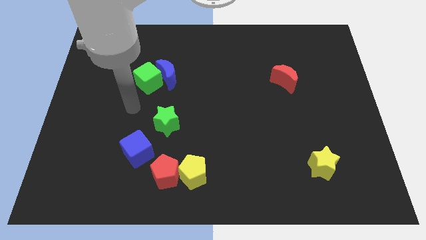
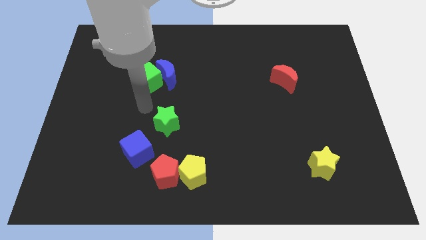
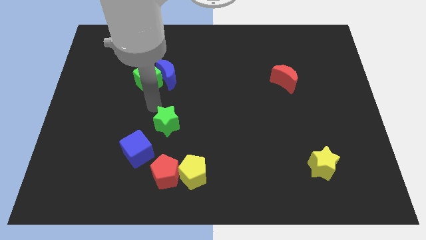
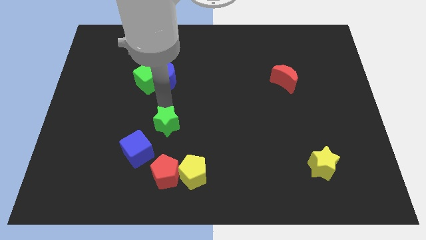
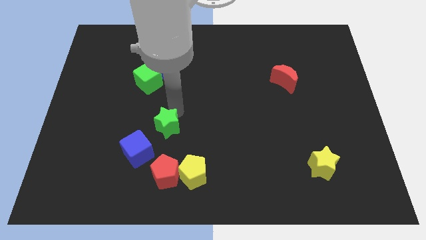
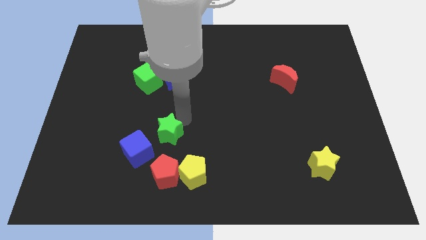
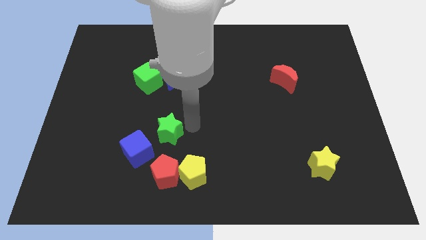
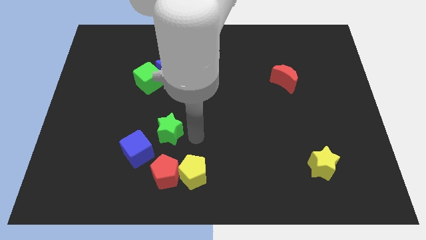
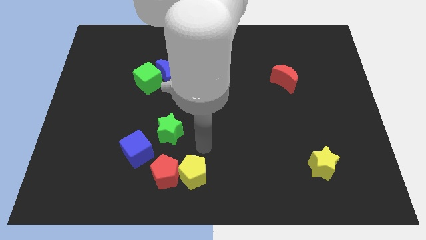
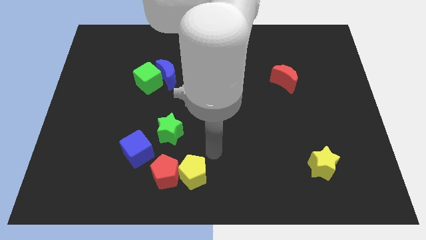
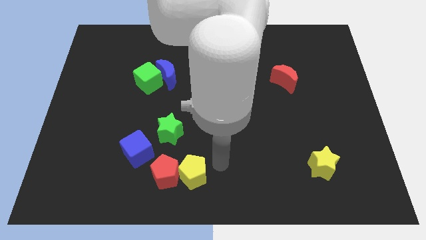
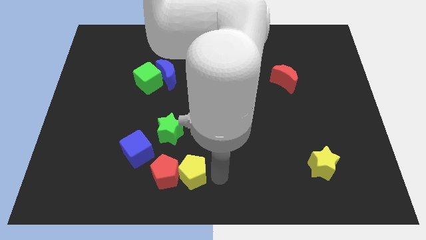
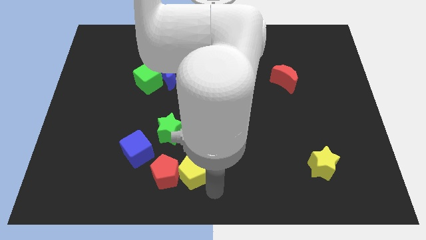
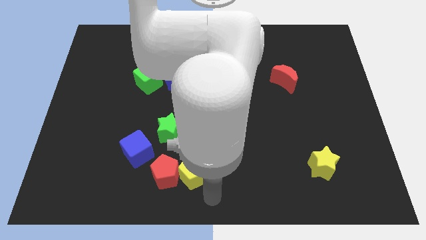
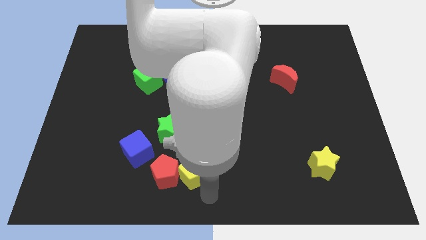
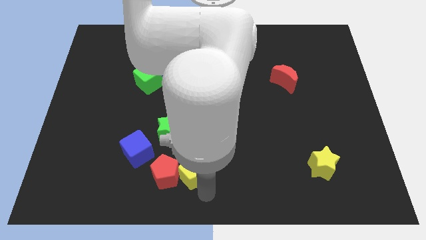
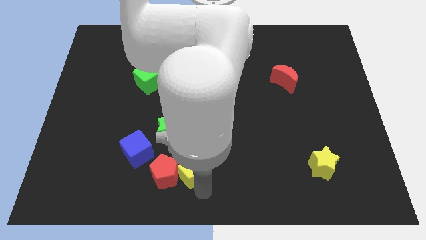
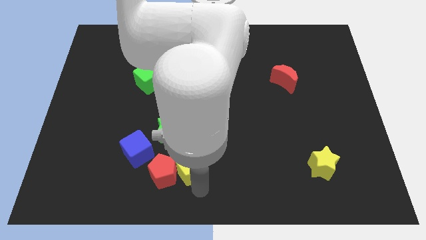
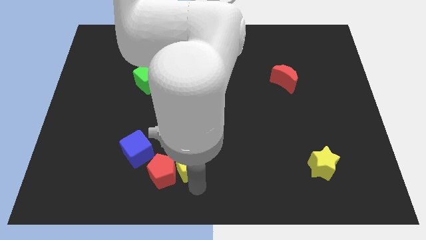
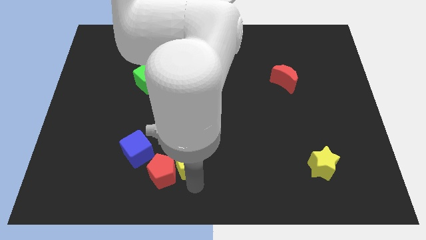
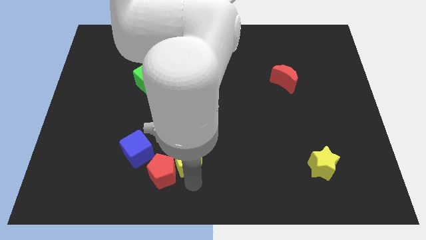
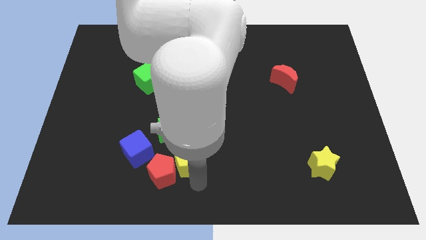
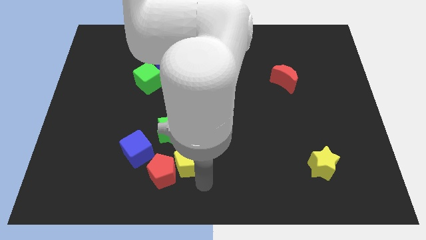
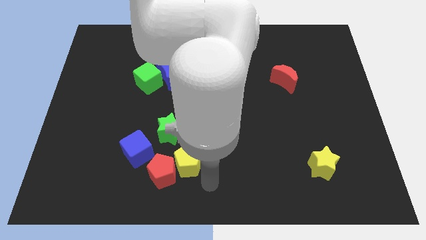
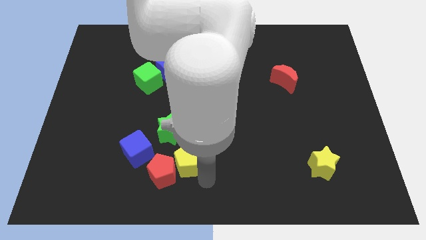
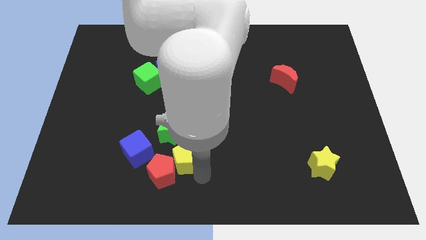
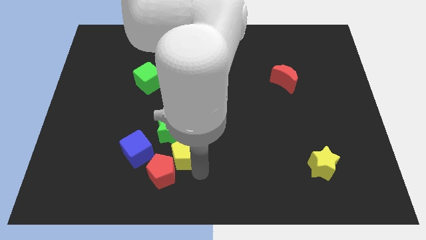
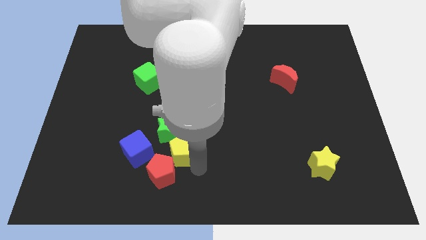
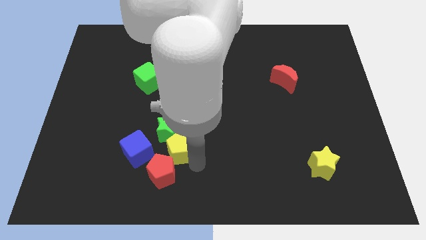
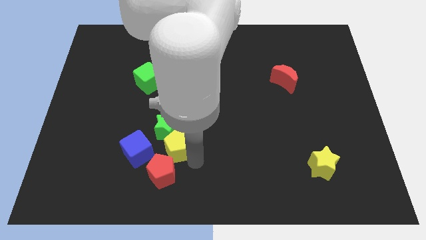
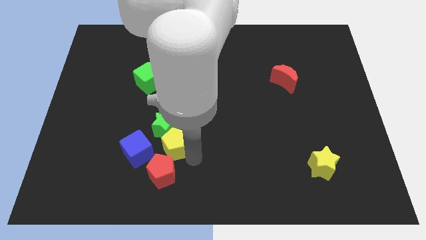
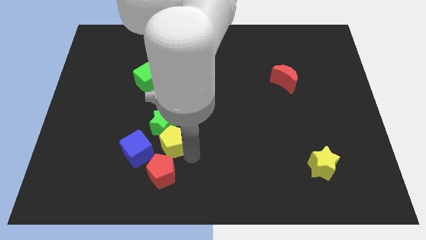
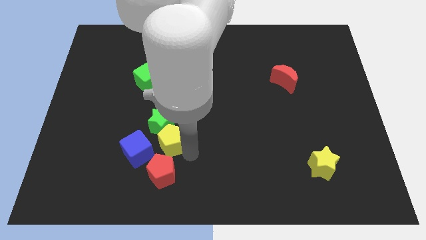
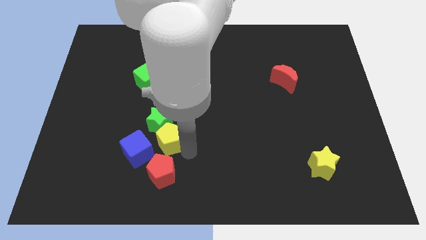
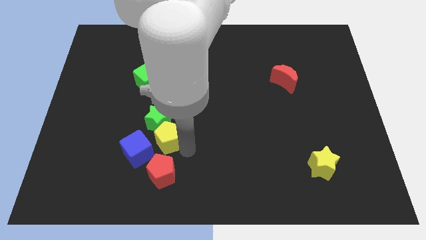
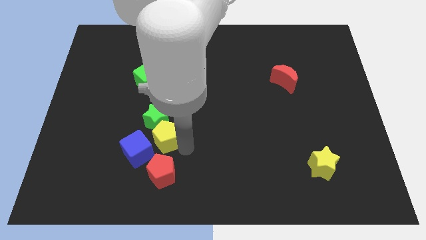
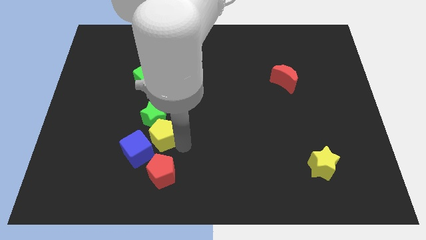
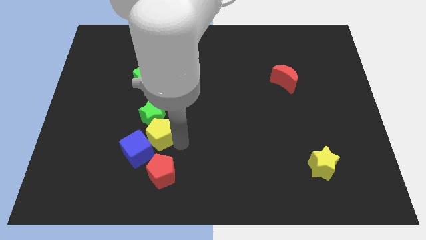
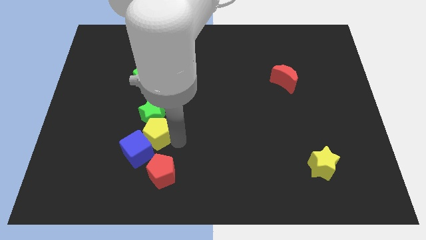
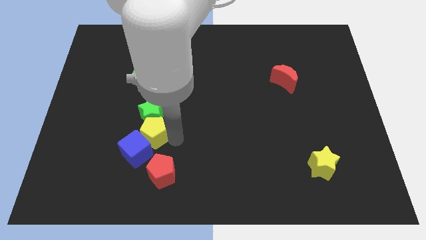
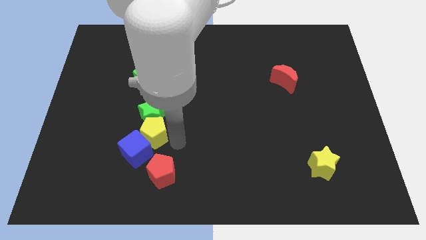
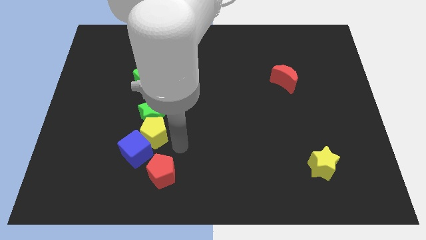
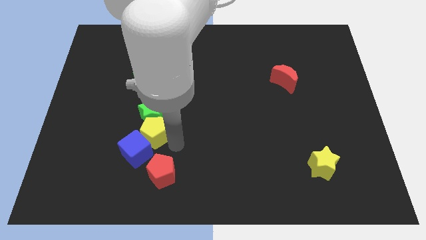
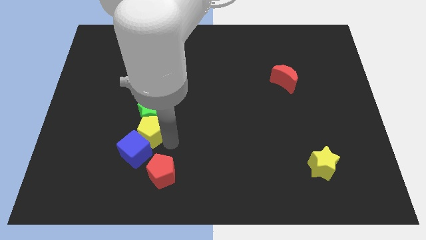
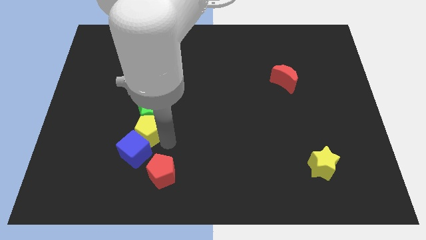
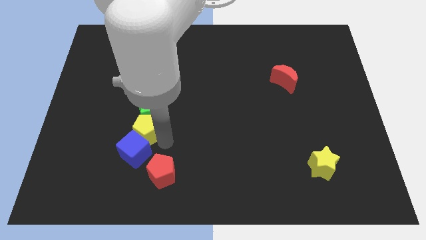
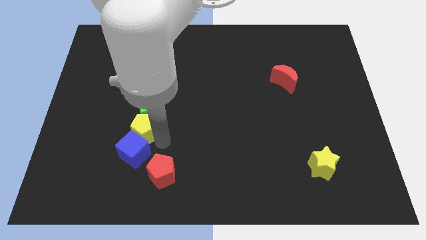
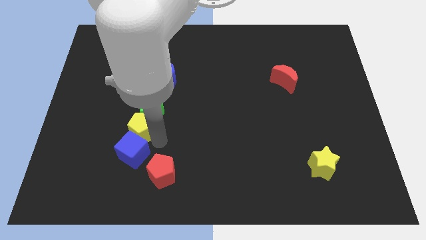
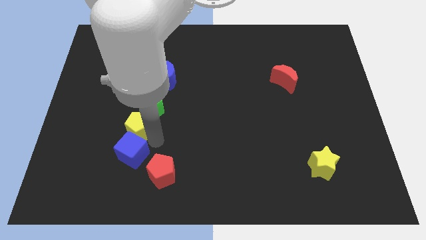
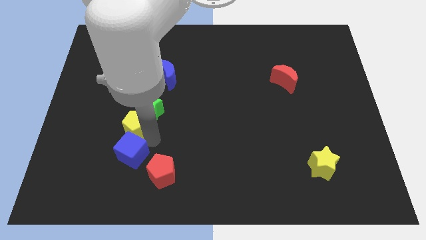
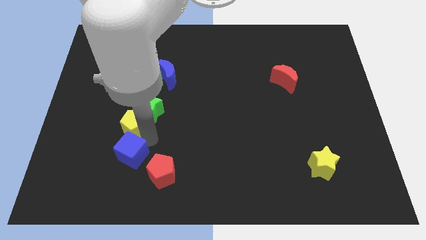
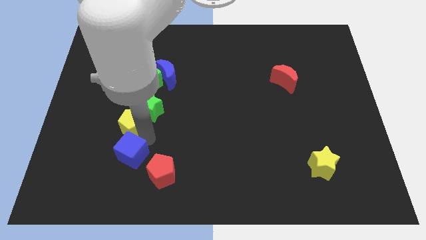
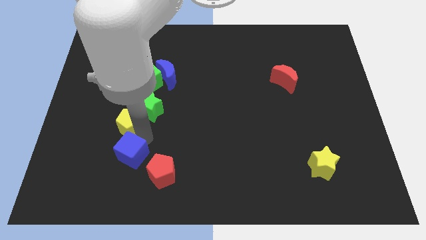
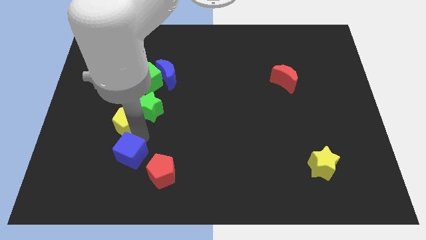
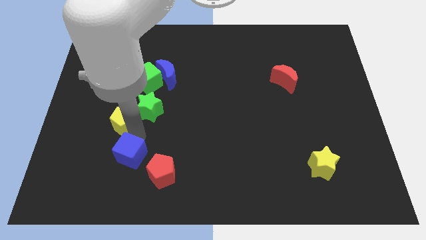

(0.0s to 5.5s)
move the yellow pentagon diagonally up and left

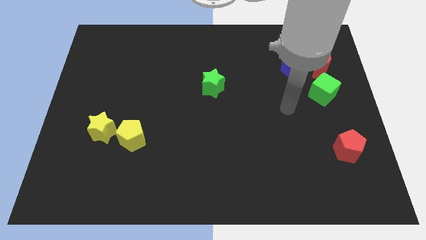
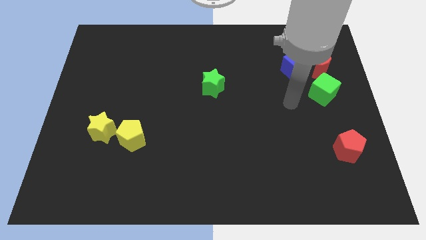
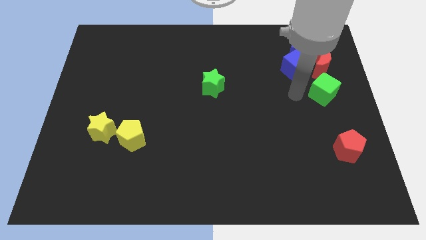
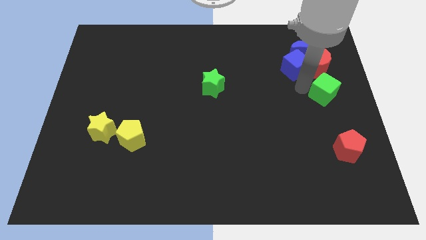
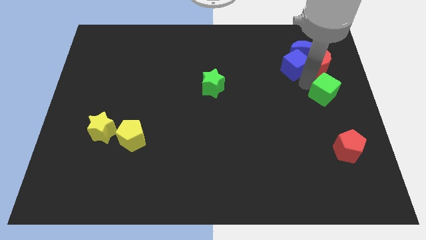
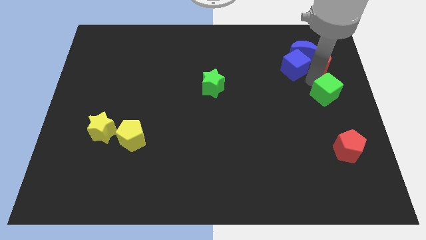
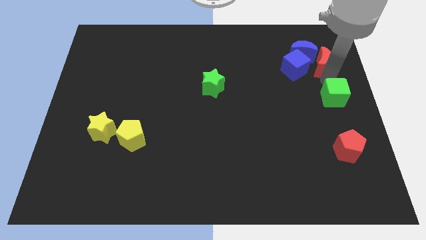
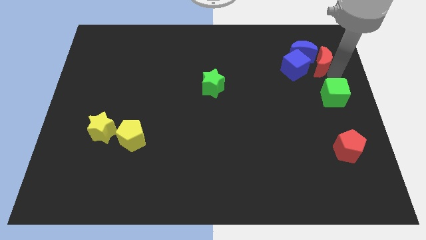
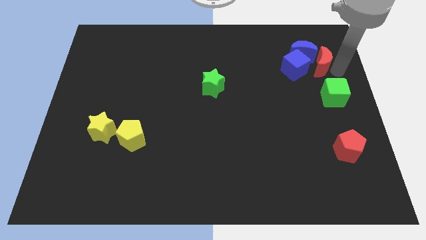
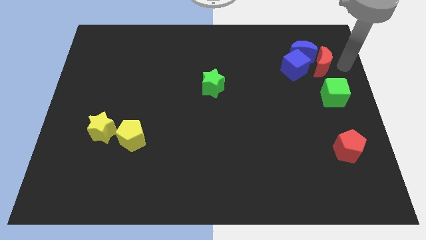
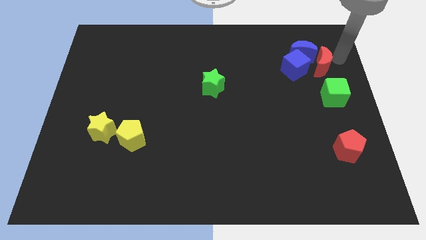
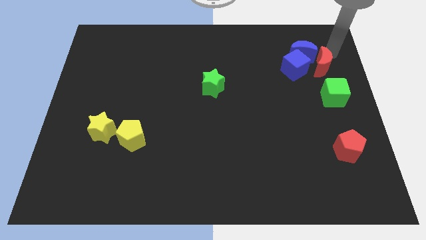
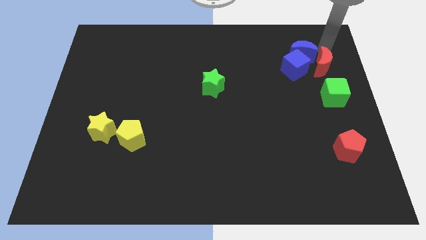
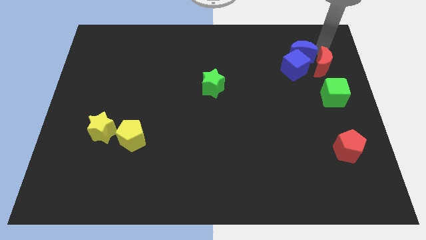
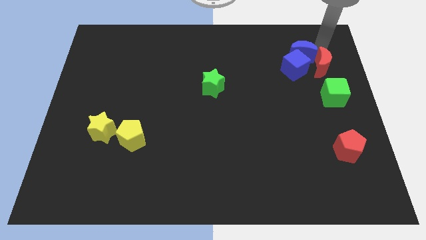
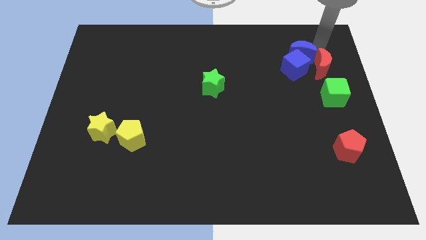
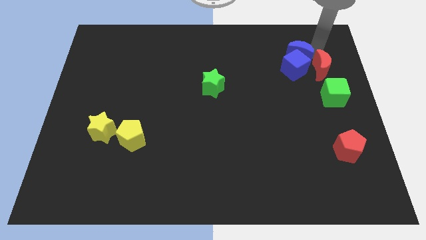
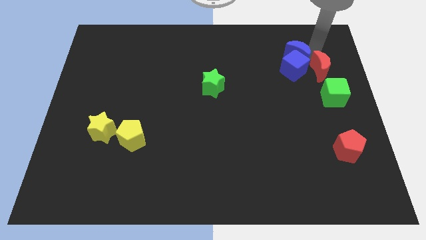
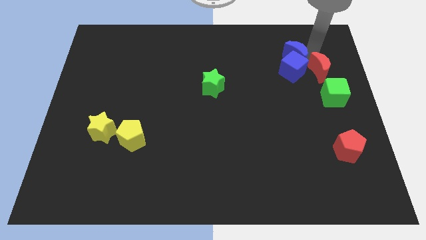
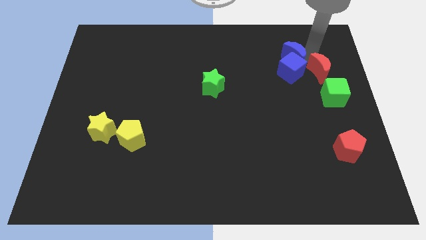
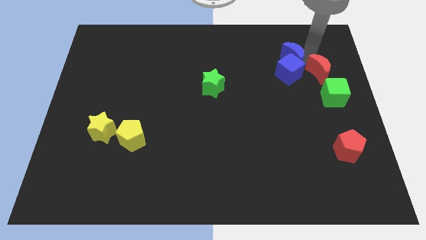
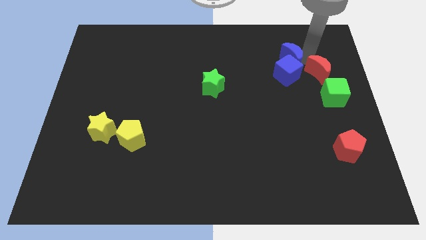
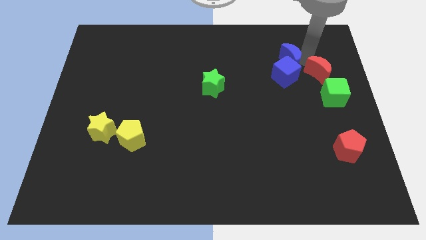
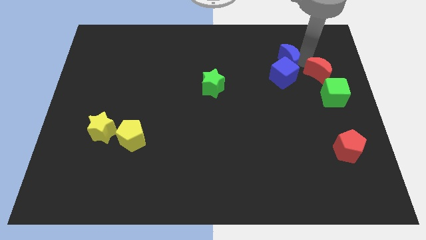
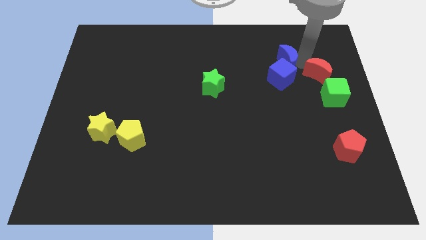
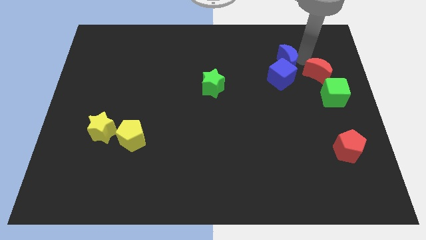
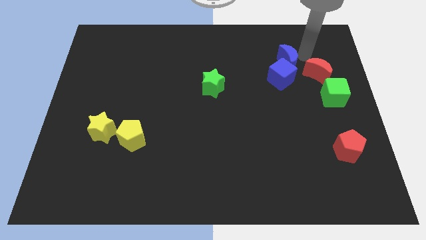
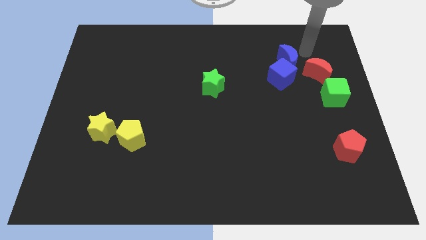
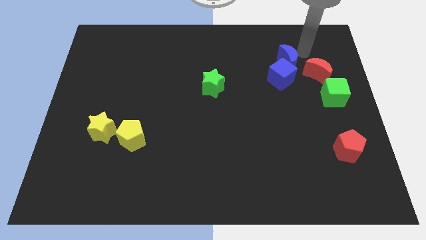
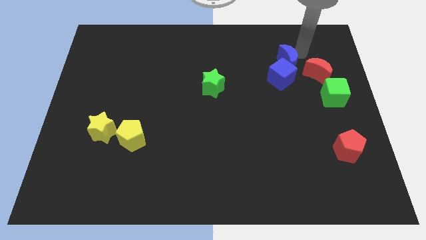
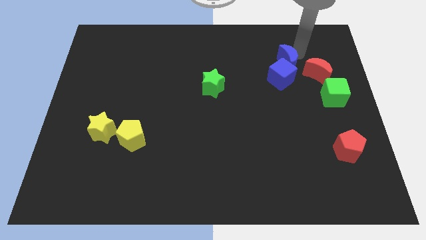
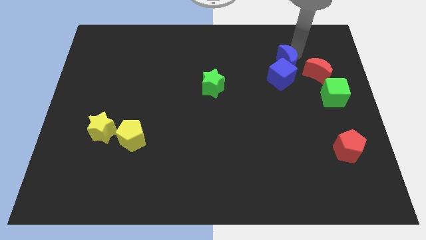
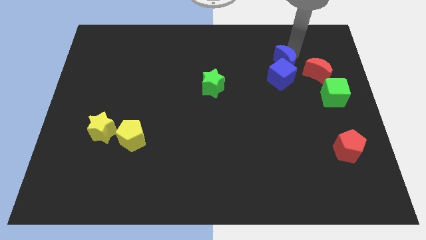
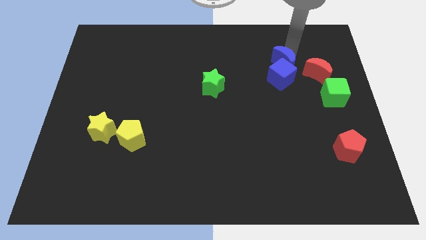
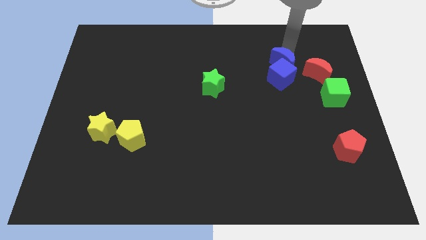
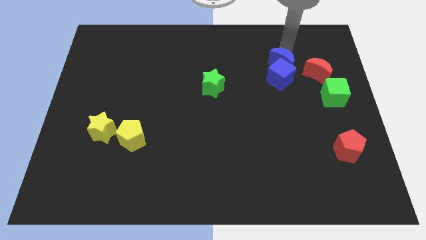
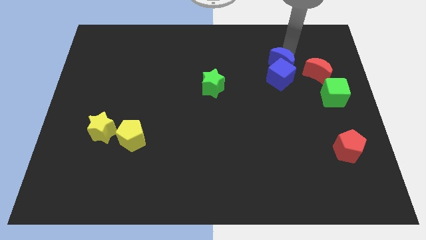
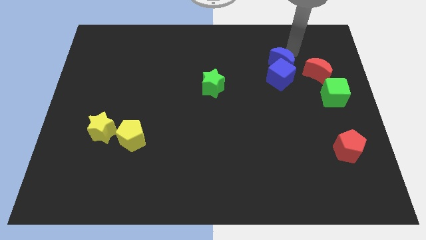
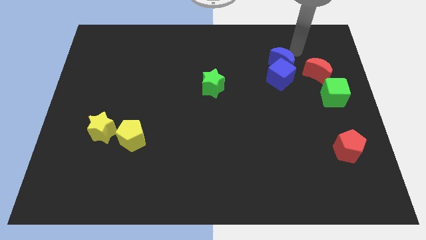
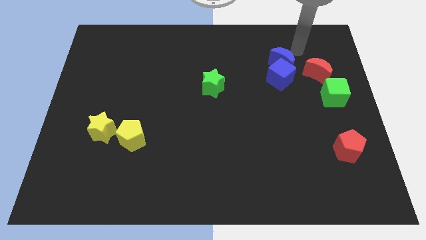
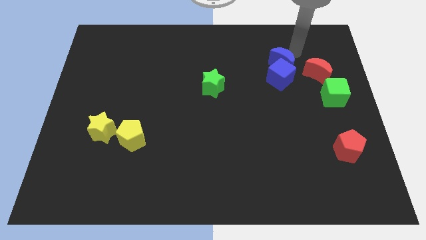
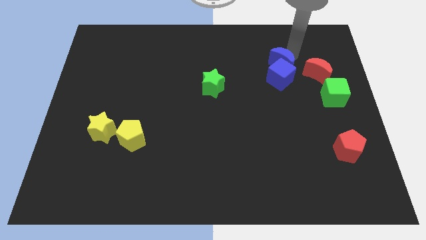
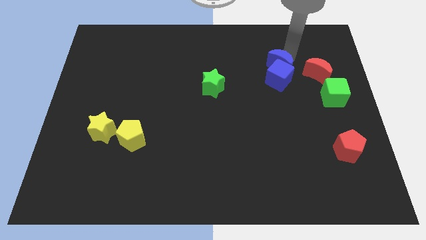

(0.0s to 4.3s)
slide the blue moon somewhat downwards and to the left
